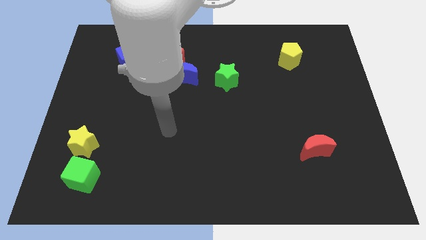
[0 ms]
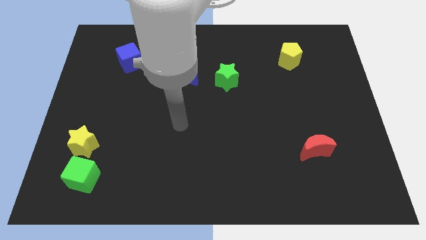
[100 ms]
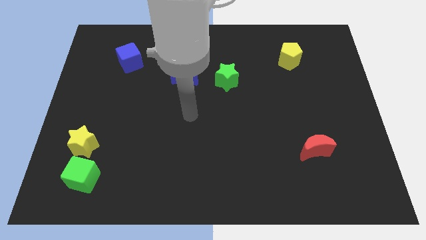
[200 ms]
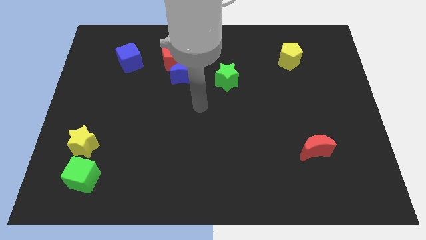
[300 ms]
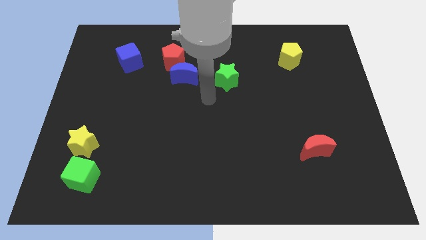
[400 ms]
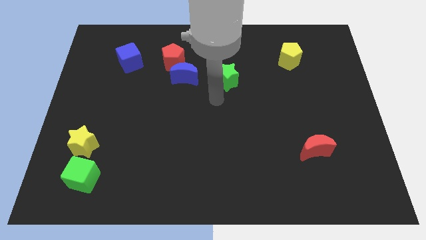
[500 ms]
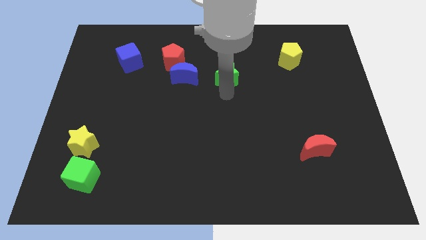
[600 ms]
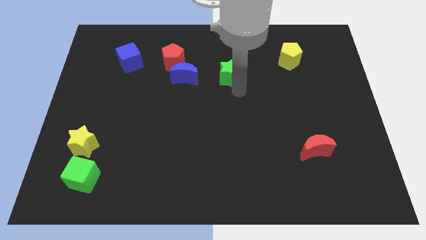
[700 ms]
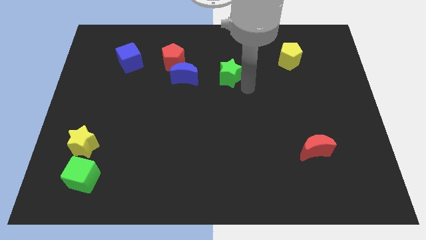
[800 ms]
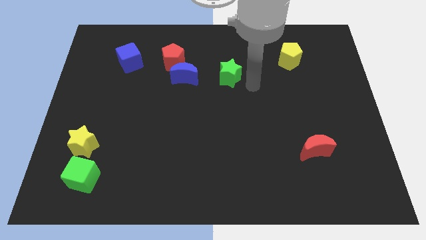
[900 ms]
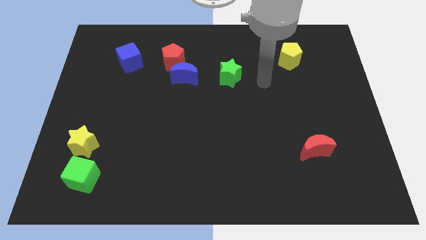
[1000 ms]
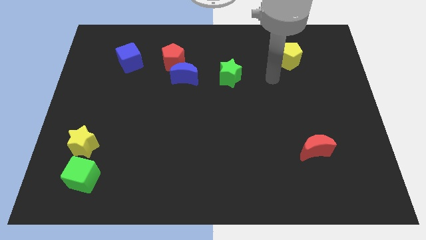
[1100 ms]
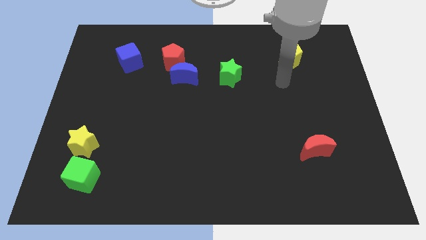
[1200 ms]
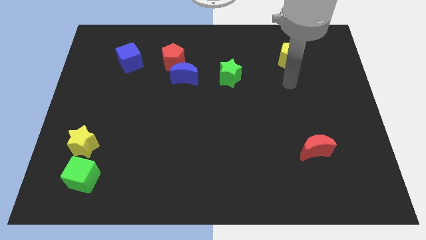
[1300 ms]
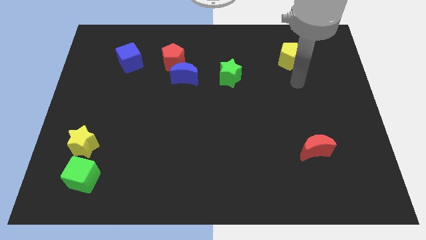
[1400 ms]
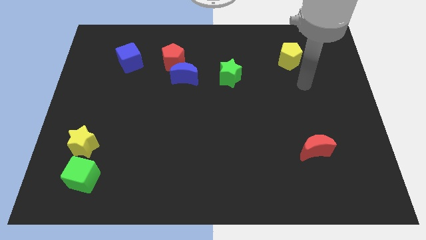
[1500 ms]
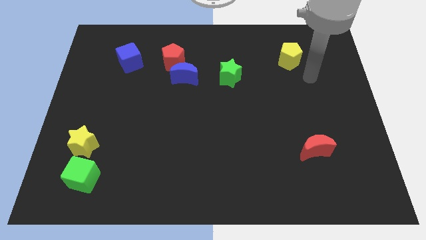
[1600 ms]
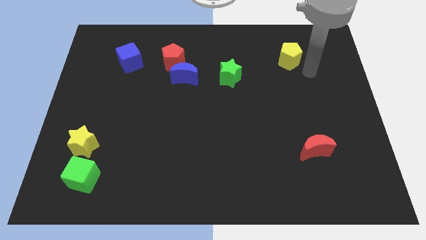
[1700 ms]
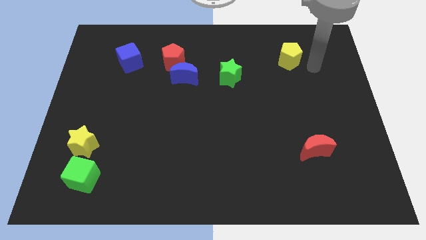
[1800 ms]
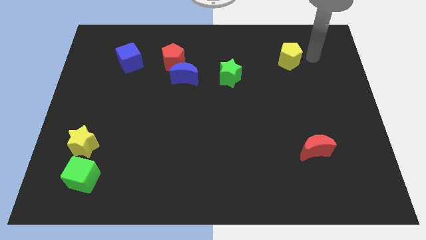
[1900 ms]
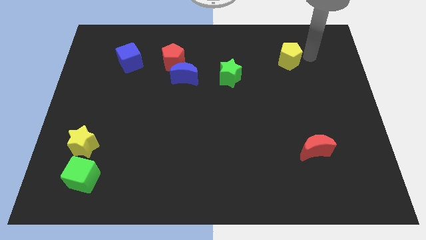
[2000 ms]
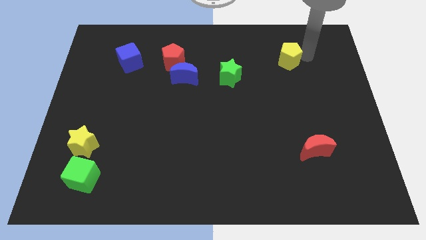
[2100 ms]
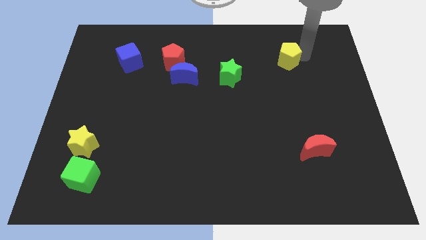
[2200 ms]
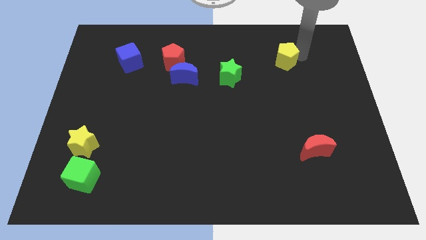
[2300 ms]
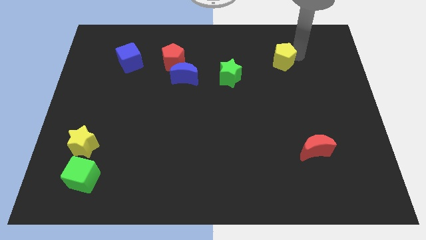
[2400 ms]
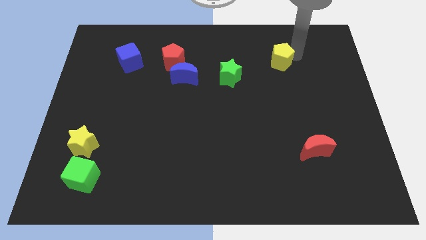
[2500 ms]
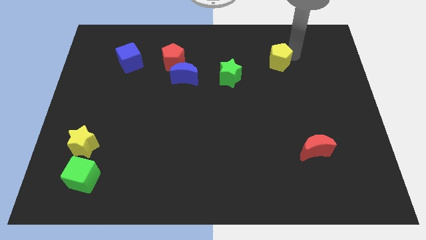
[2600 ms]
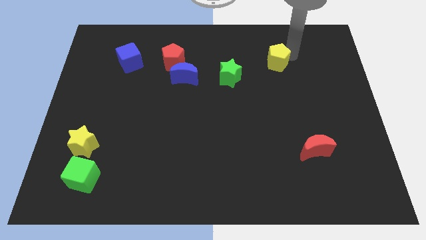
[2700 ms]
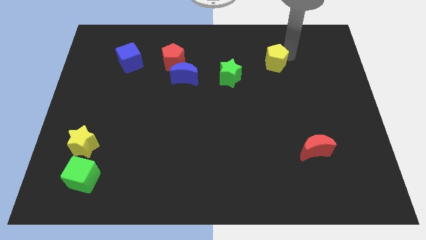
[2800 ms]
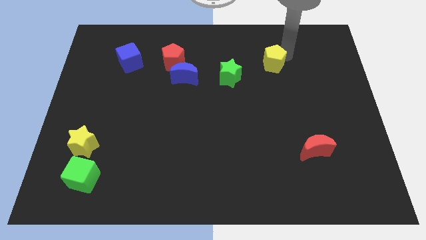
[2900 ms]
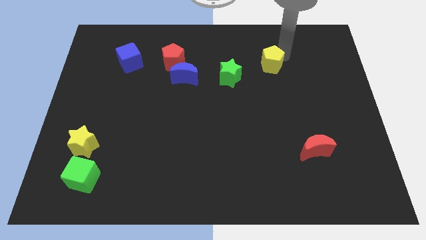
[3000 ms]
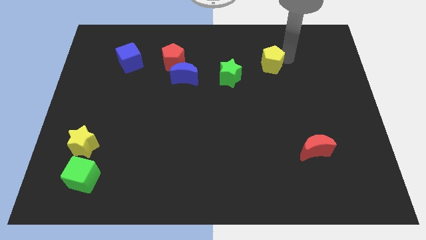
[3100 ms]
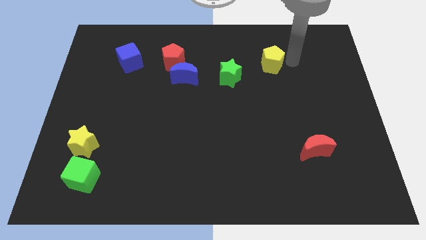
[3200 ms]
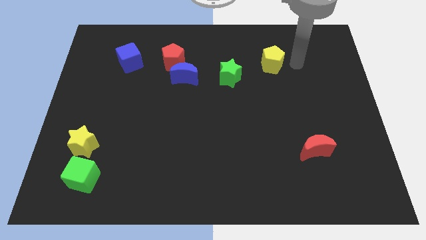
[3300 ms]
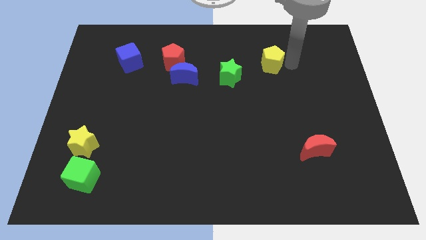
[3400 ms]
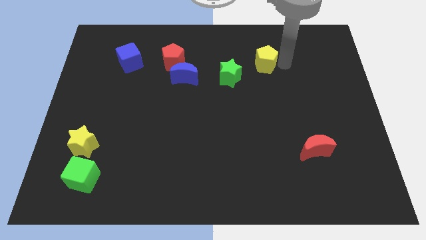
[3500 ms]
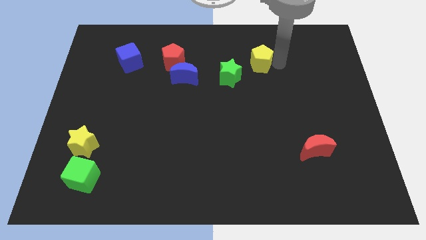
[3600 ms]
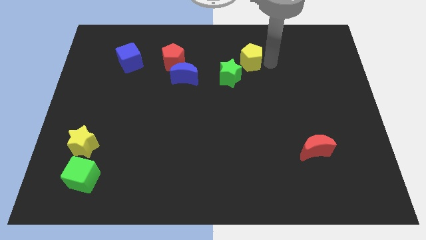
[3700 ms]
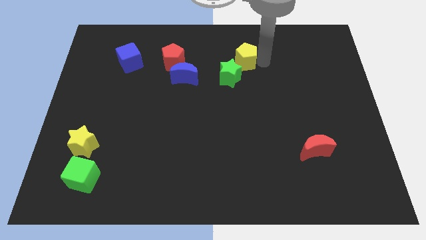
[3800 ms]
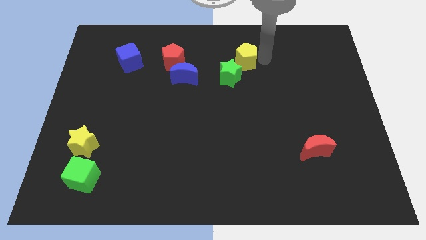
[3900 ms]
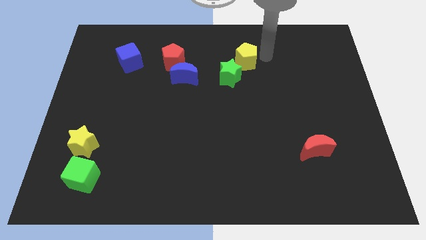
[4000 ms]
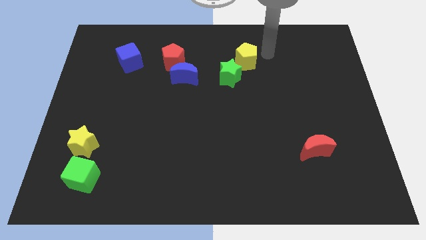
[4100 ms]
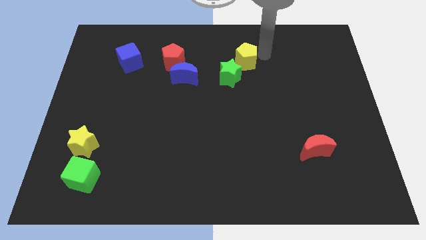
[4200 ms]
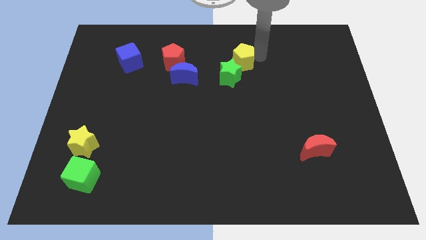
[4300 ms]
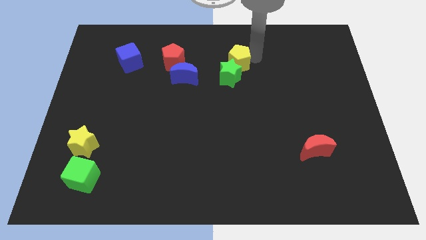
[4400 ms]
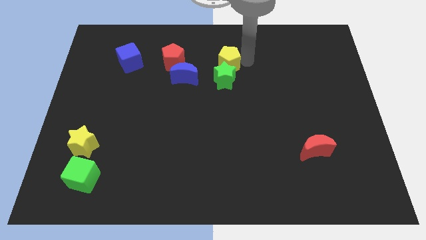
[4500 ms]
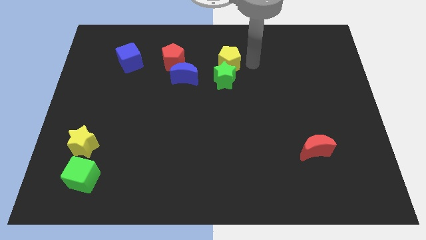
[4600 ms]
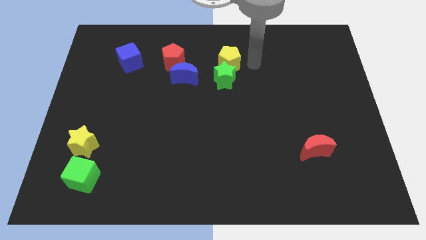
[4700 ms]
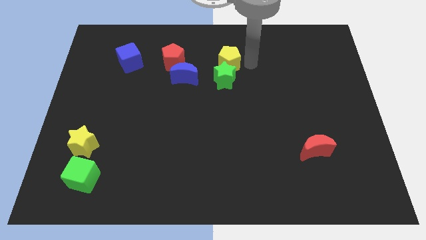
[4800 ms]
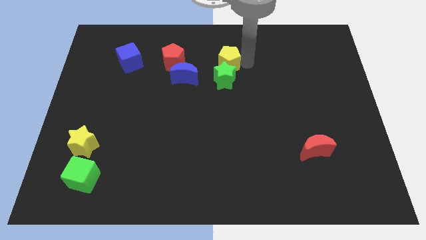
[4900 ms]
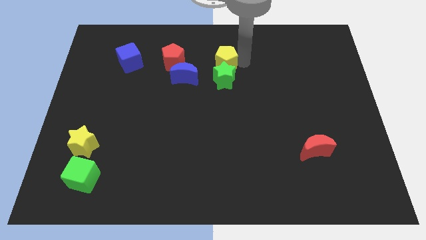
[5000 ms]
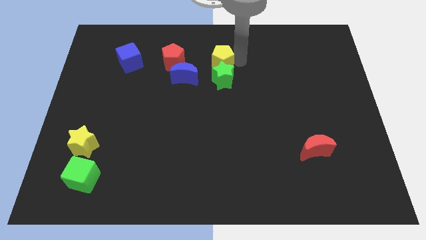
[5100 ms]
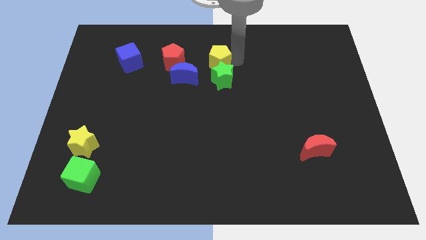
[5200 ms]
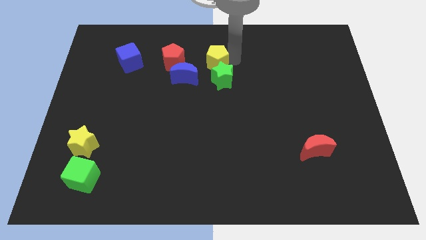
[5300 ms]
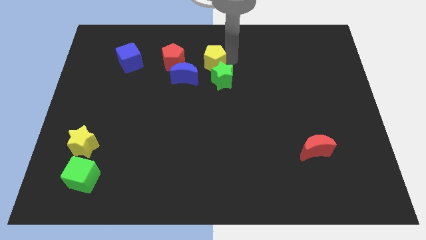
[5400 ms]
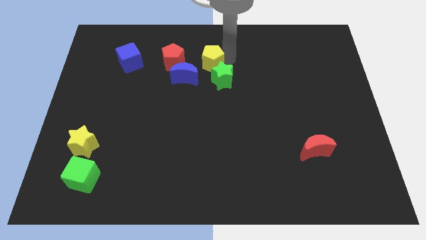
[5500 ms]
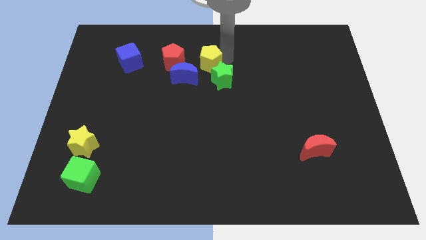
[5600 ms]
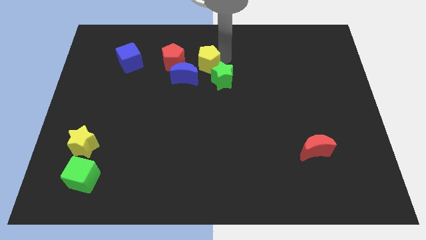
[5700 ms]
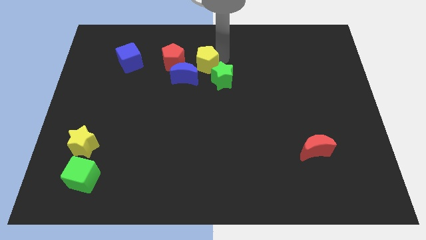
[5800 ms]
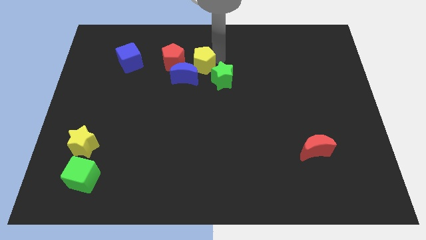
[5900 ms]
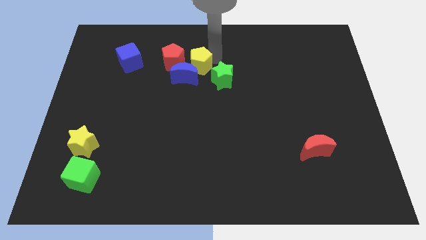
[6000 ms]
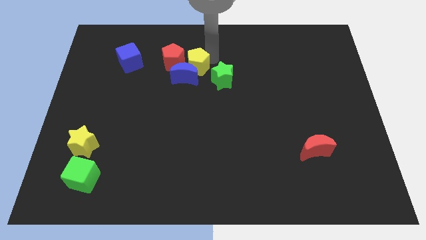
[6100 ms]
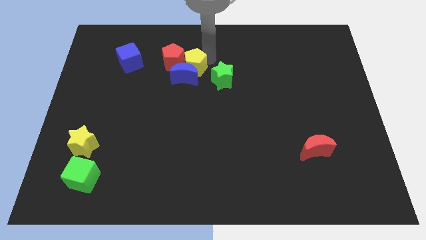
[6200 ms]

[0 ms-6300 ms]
push the yellow pentagon close to the red pentagon

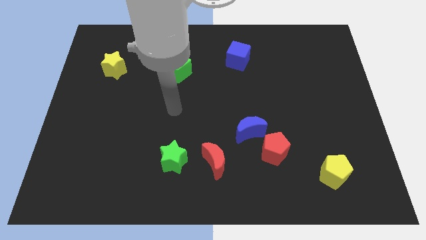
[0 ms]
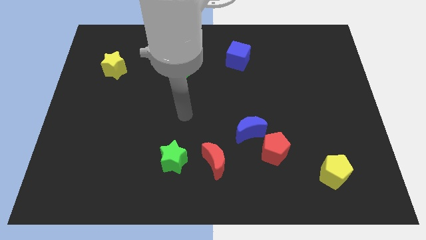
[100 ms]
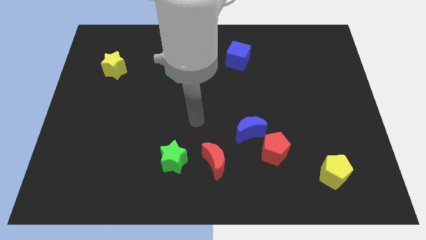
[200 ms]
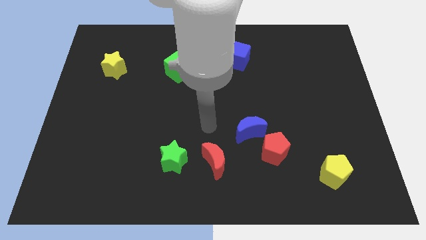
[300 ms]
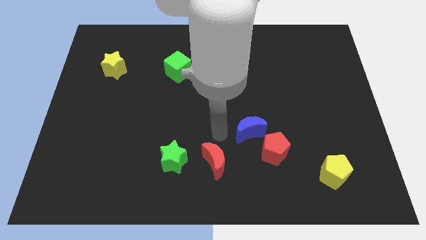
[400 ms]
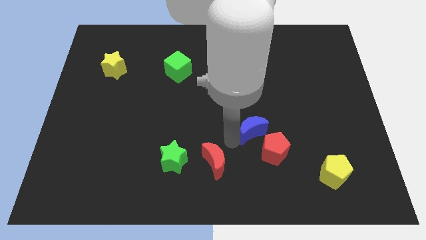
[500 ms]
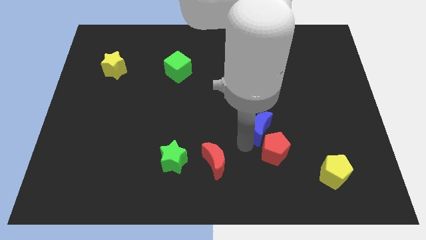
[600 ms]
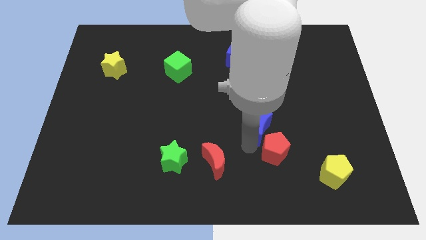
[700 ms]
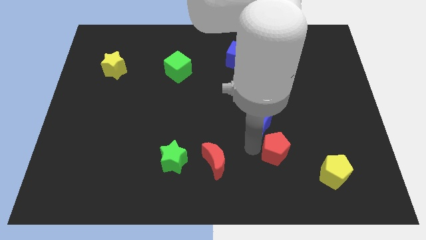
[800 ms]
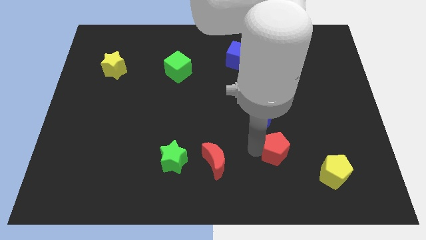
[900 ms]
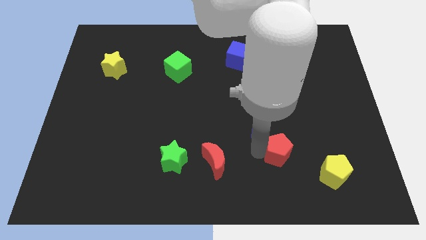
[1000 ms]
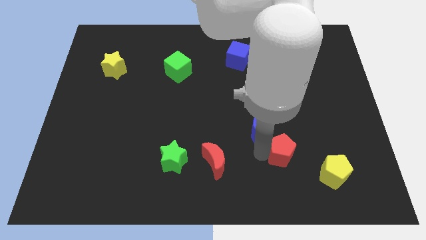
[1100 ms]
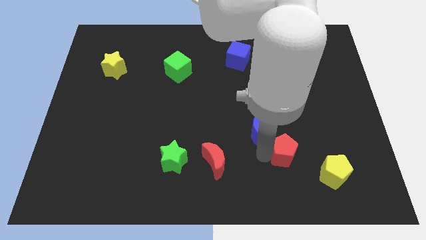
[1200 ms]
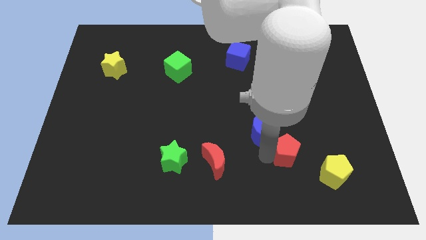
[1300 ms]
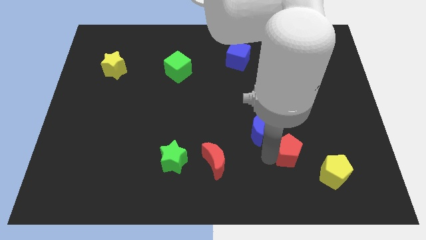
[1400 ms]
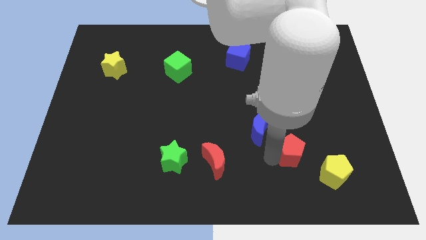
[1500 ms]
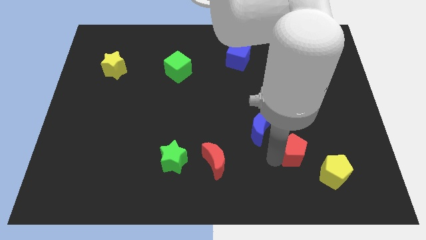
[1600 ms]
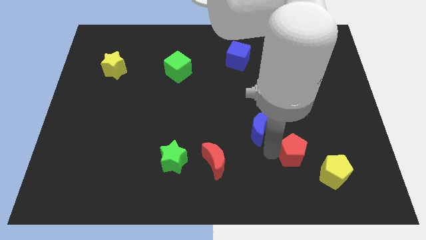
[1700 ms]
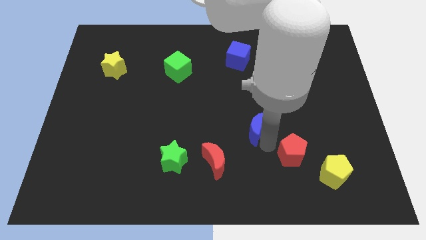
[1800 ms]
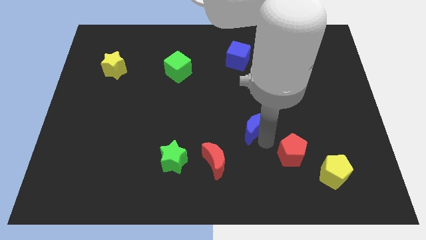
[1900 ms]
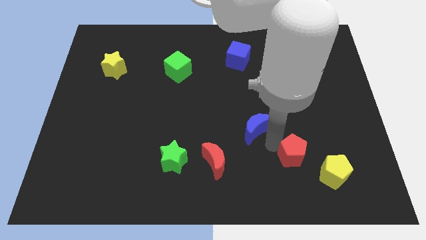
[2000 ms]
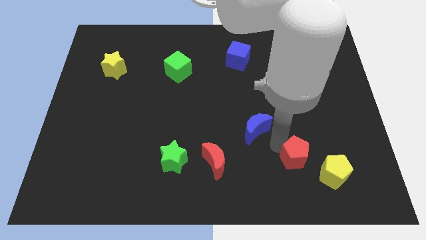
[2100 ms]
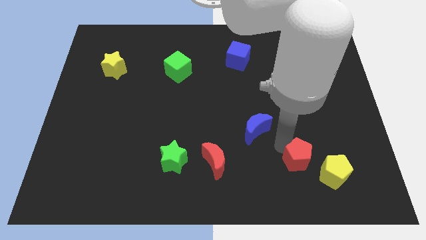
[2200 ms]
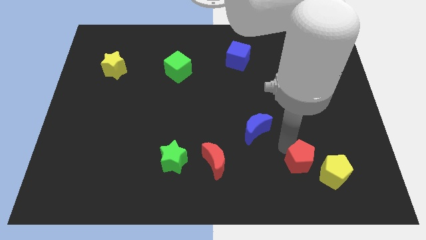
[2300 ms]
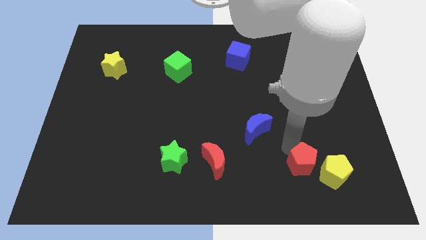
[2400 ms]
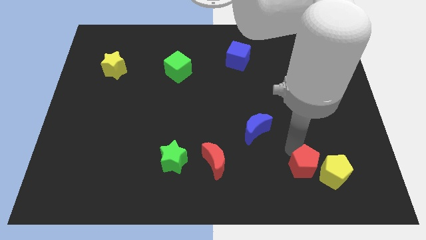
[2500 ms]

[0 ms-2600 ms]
push the red pentagon close to the yellow pentagon
